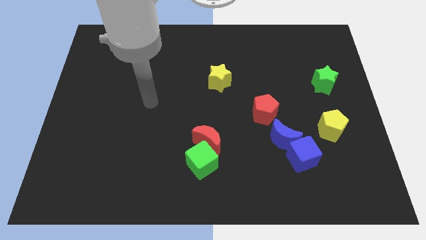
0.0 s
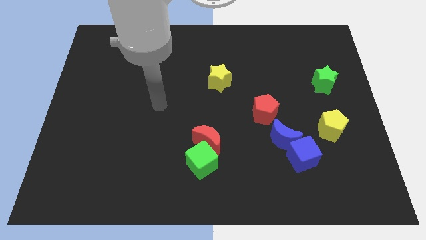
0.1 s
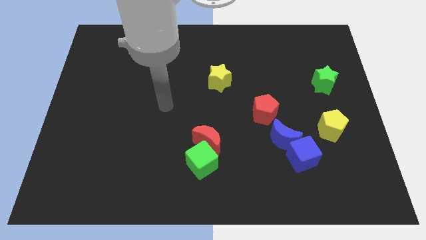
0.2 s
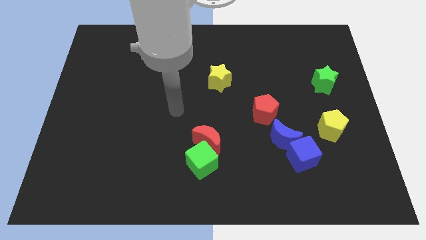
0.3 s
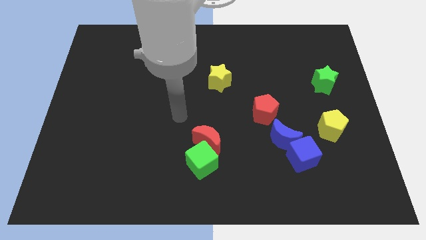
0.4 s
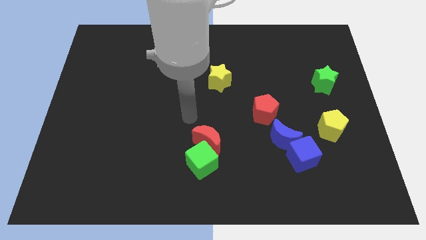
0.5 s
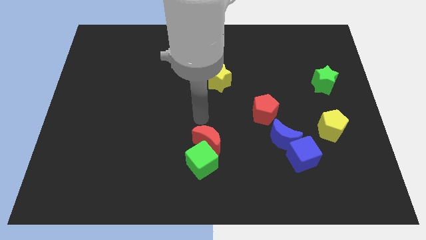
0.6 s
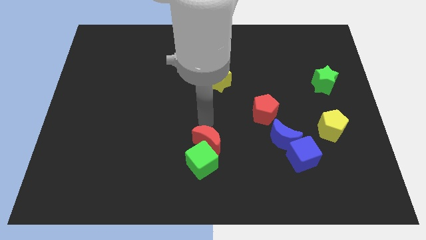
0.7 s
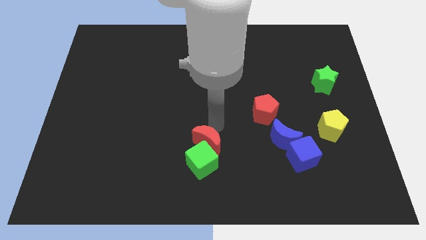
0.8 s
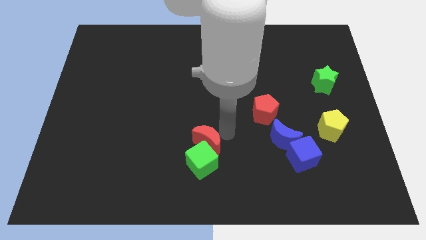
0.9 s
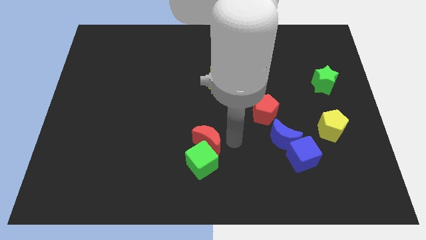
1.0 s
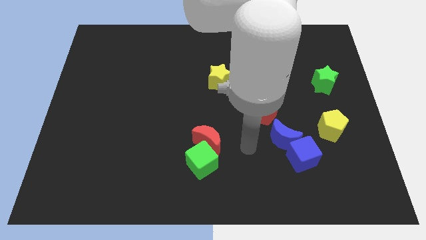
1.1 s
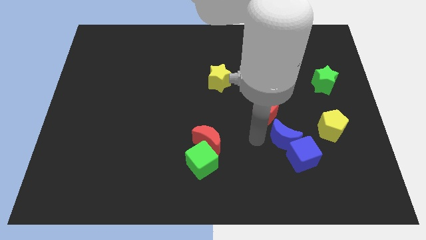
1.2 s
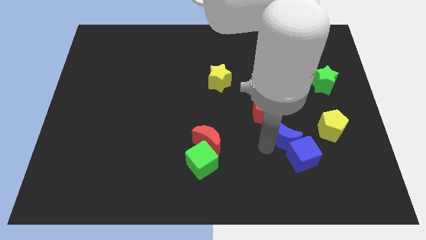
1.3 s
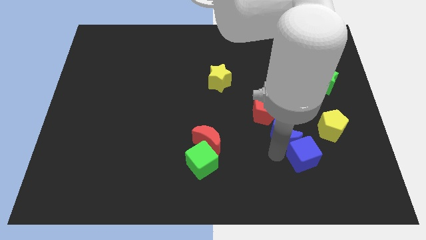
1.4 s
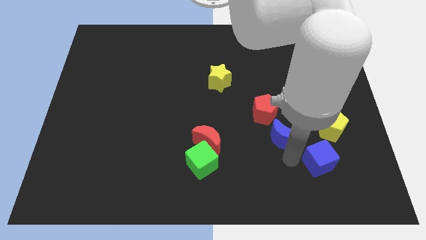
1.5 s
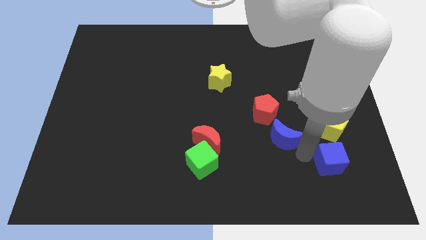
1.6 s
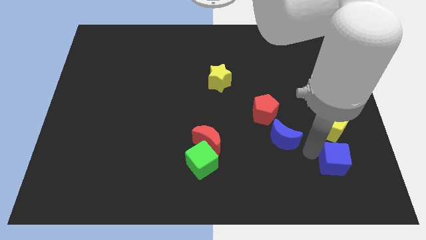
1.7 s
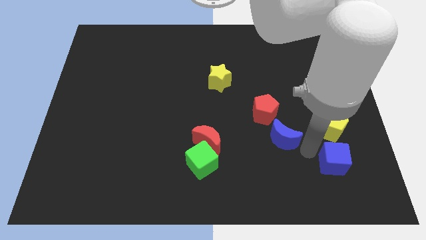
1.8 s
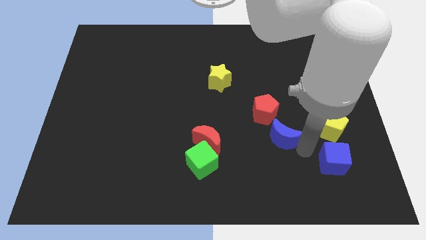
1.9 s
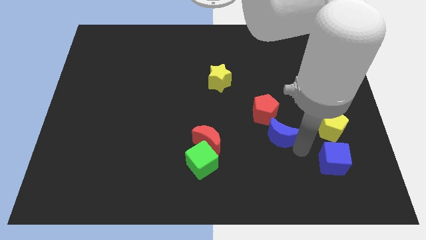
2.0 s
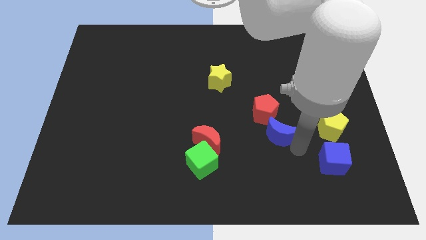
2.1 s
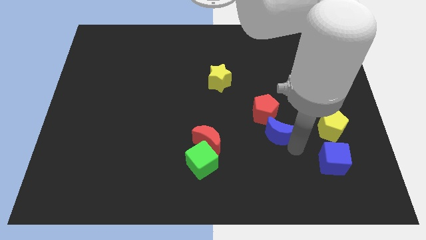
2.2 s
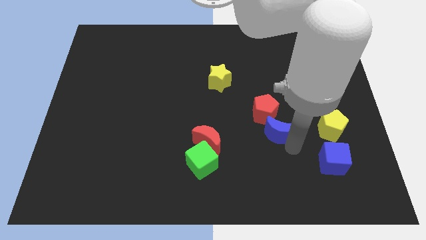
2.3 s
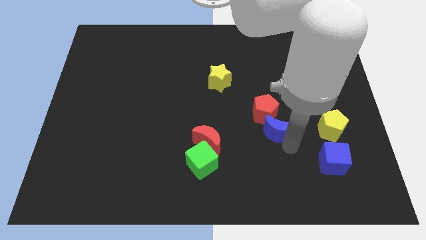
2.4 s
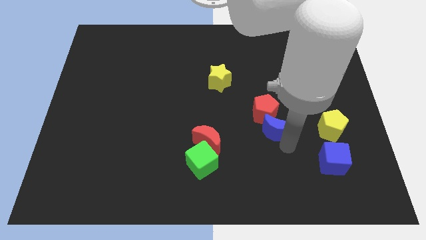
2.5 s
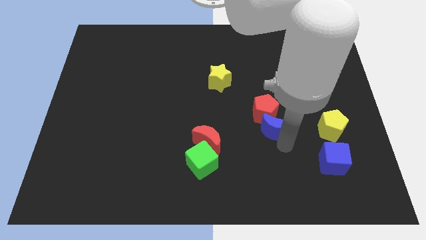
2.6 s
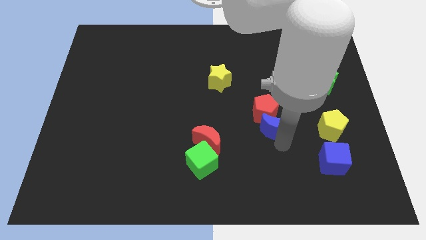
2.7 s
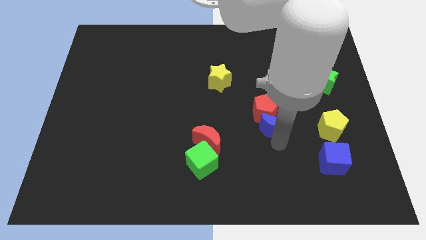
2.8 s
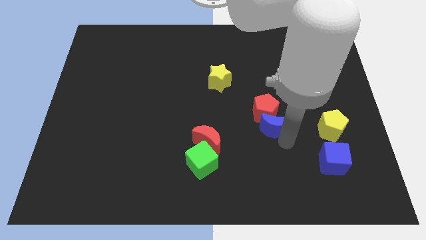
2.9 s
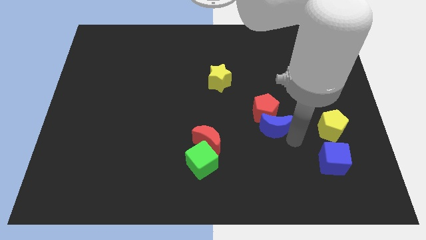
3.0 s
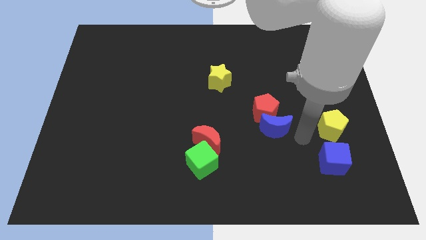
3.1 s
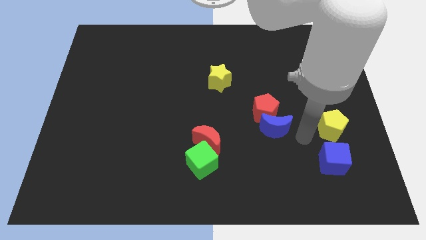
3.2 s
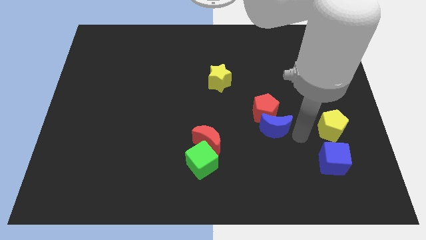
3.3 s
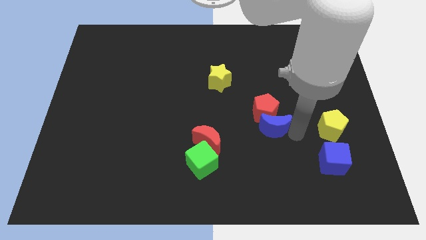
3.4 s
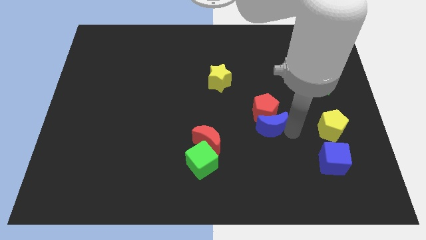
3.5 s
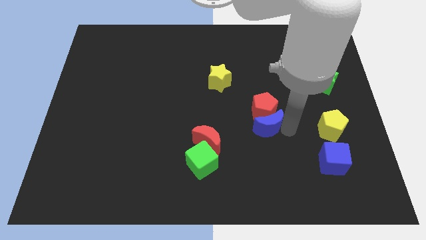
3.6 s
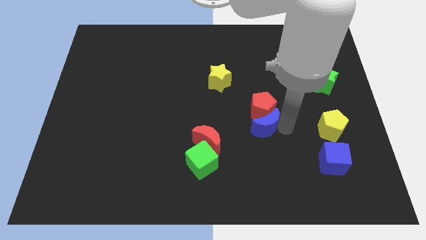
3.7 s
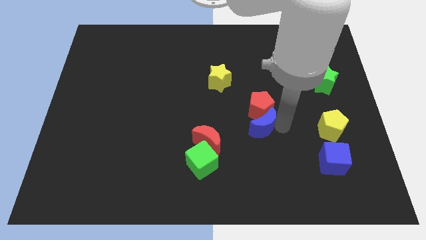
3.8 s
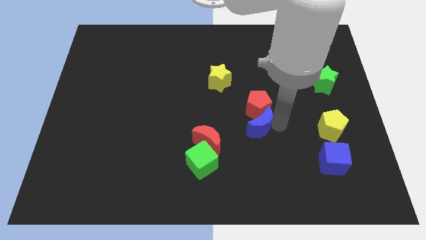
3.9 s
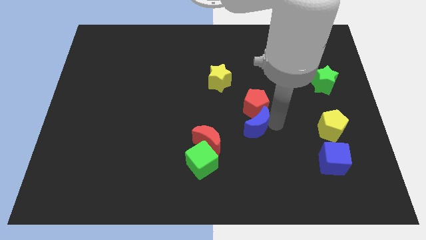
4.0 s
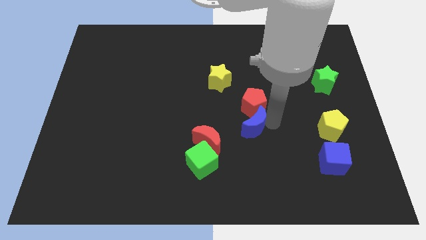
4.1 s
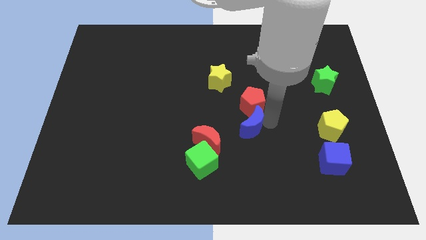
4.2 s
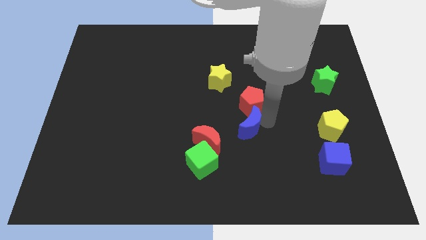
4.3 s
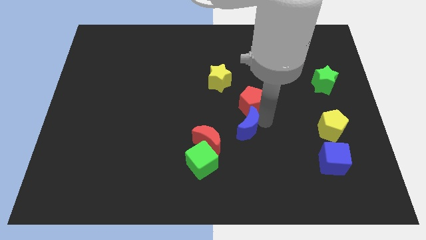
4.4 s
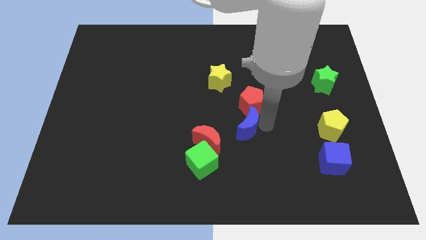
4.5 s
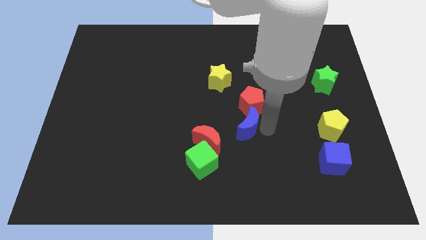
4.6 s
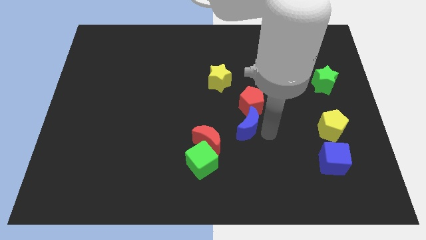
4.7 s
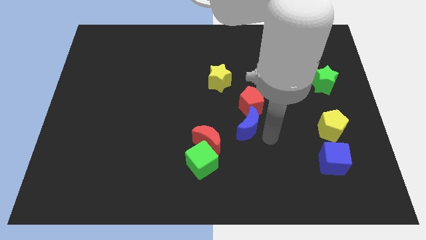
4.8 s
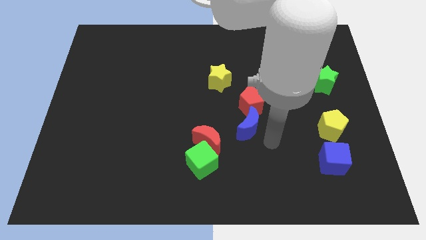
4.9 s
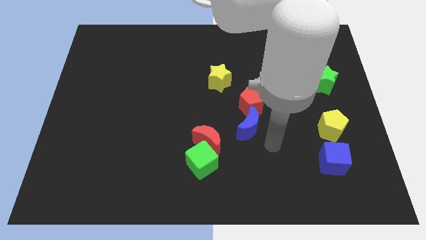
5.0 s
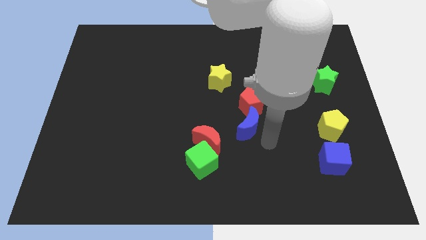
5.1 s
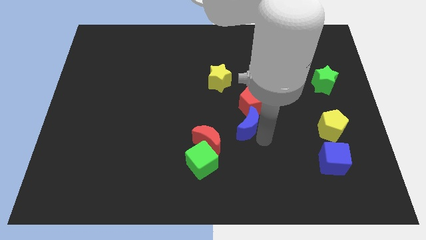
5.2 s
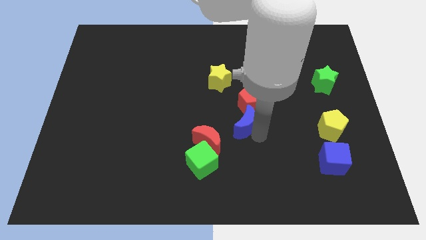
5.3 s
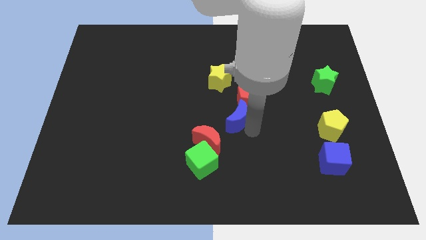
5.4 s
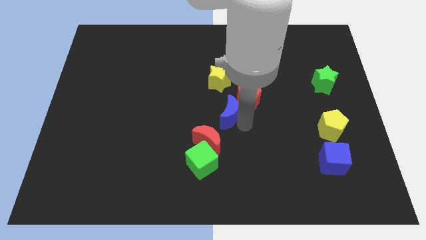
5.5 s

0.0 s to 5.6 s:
move the blue moon to the left side of the red pentagon

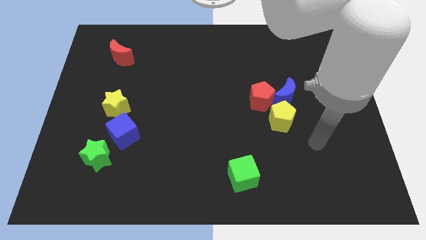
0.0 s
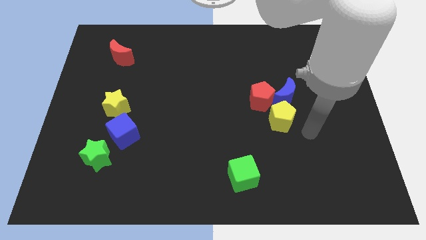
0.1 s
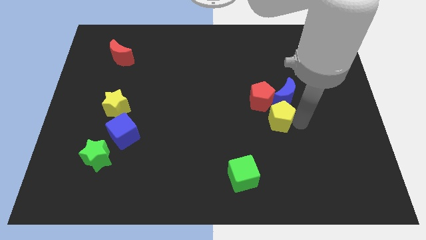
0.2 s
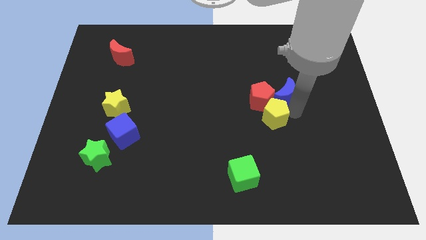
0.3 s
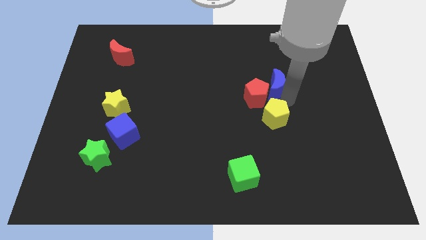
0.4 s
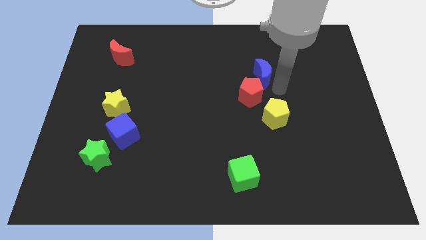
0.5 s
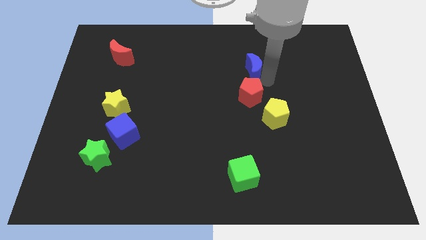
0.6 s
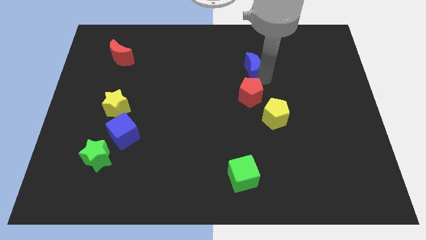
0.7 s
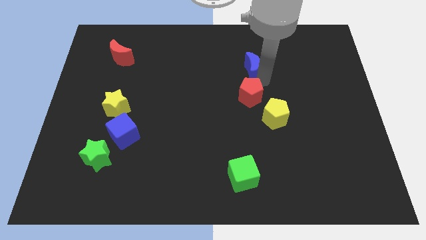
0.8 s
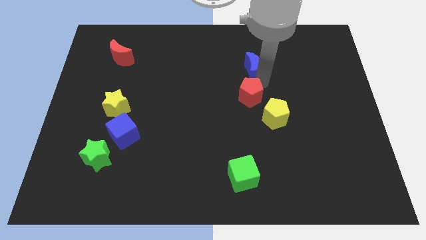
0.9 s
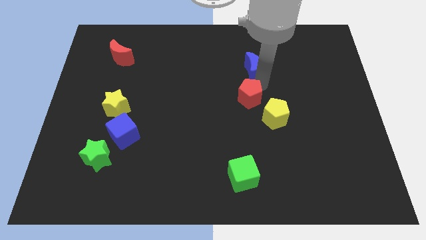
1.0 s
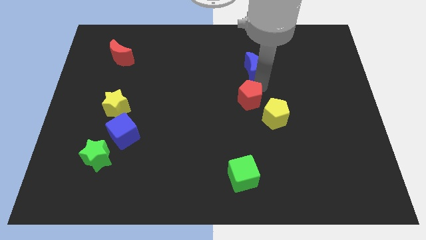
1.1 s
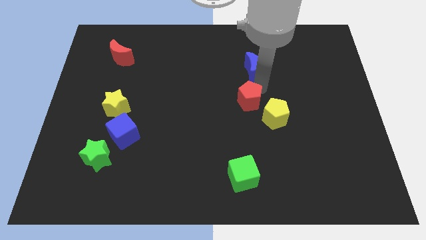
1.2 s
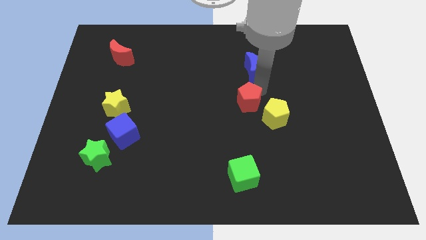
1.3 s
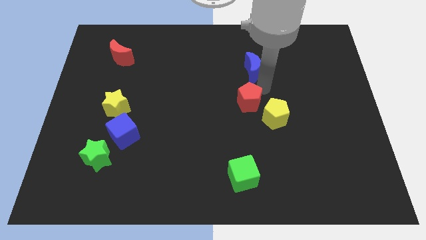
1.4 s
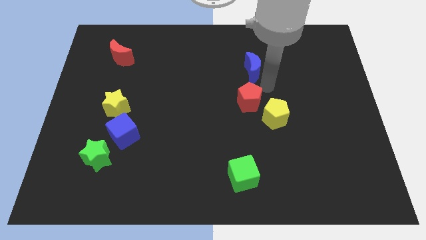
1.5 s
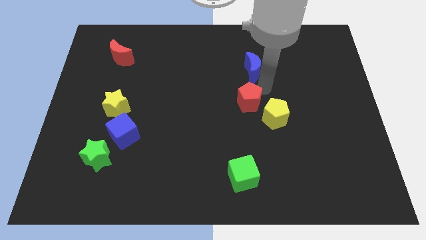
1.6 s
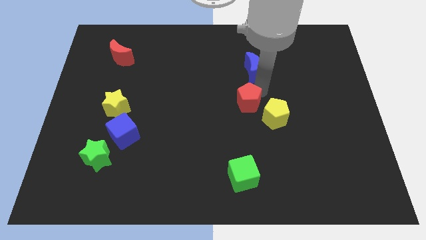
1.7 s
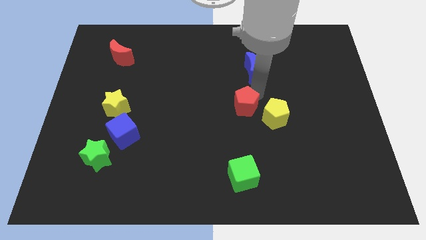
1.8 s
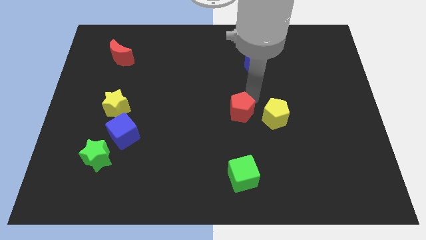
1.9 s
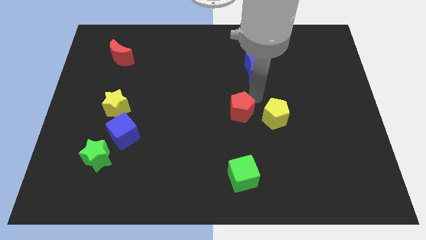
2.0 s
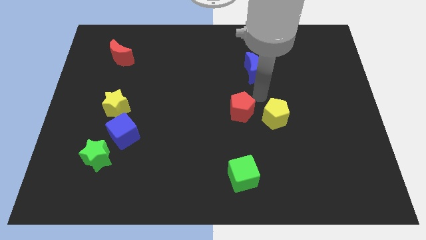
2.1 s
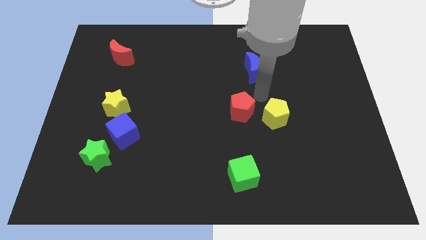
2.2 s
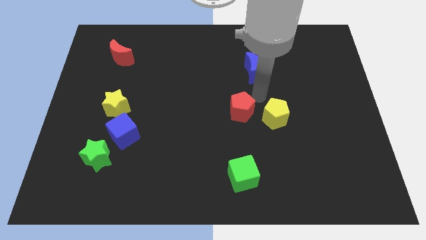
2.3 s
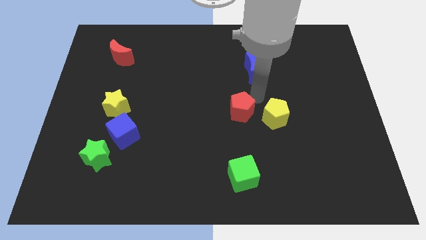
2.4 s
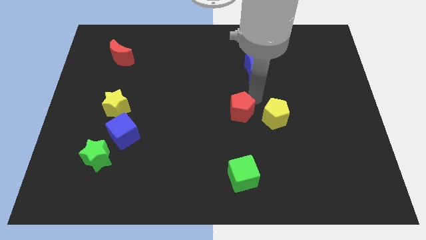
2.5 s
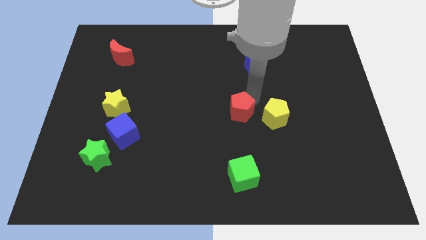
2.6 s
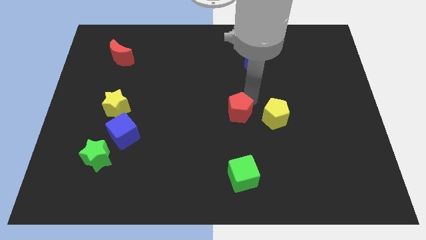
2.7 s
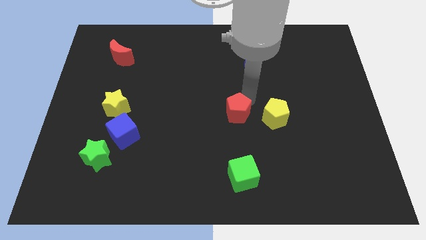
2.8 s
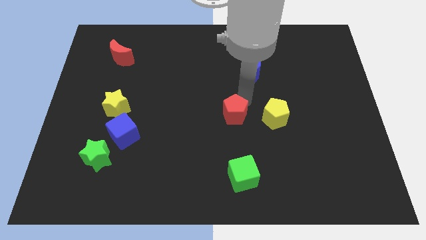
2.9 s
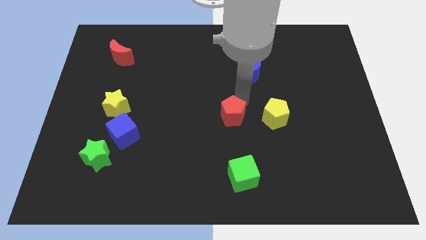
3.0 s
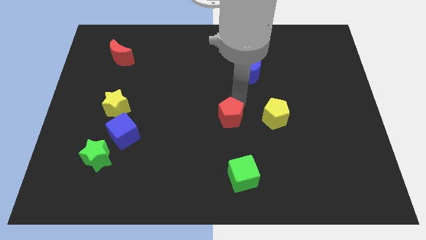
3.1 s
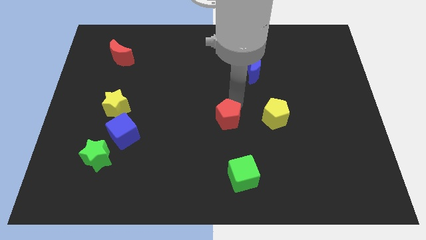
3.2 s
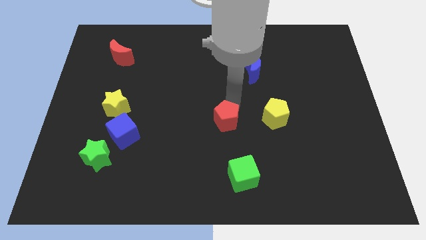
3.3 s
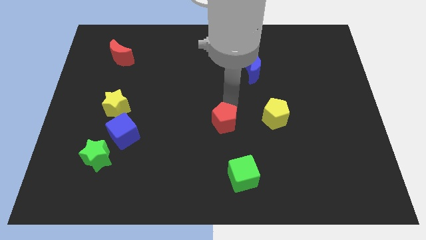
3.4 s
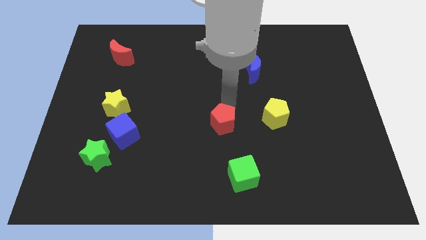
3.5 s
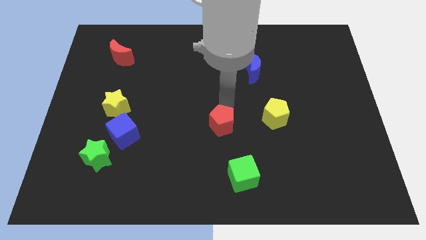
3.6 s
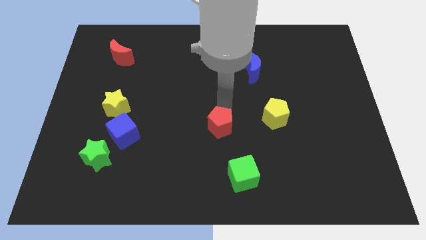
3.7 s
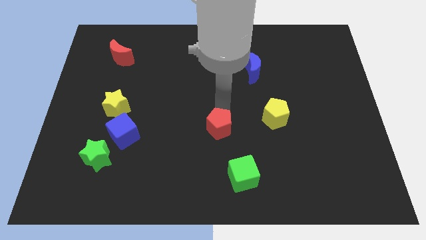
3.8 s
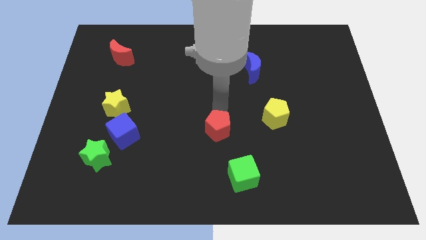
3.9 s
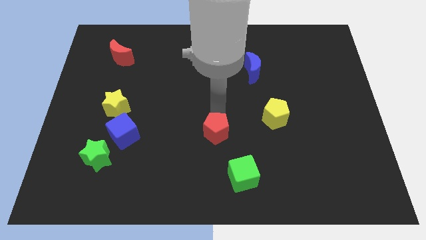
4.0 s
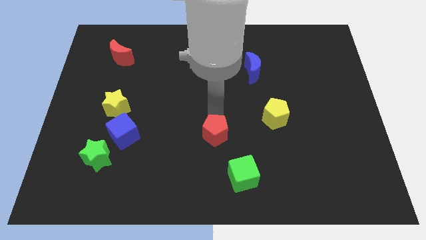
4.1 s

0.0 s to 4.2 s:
put the red pentagon diagonally up and to the left of the green cube
